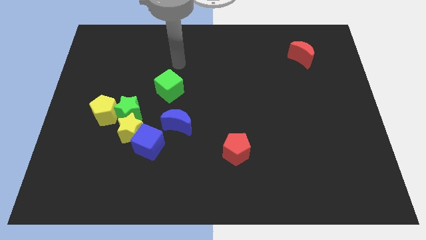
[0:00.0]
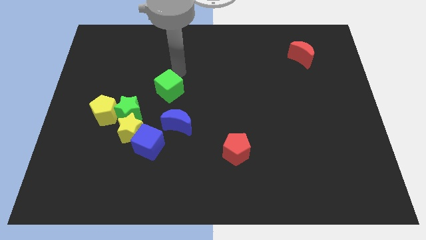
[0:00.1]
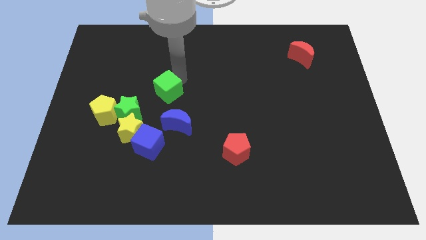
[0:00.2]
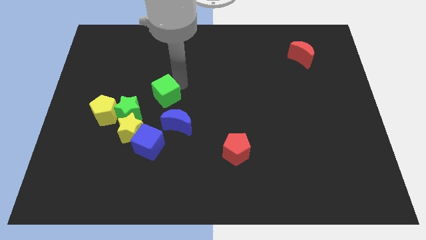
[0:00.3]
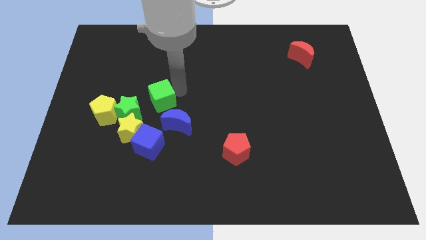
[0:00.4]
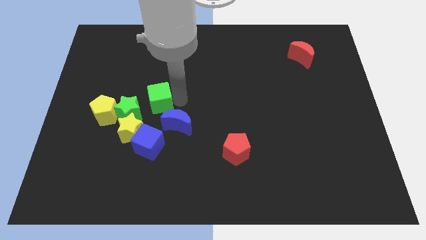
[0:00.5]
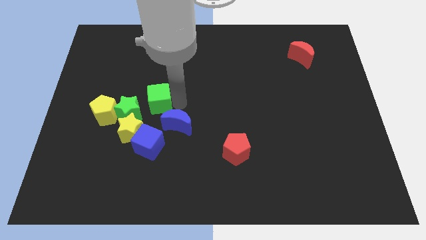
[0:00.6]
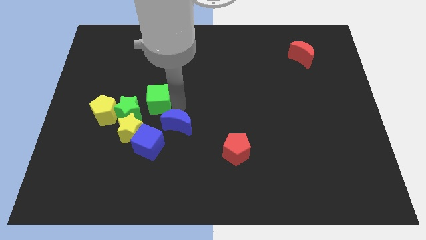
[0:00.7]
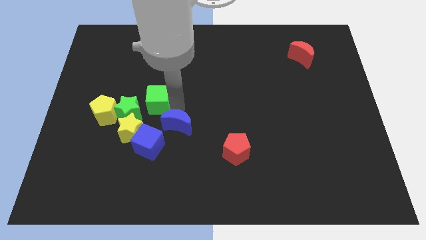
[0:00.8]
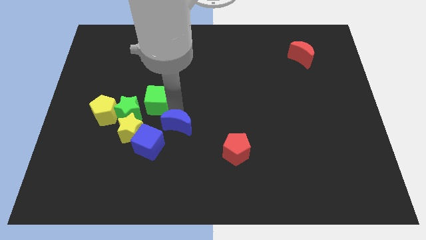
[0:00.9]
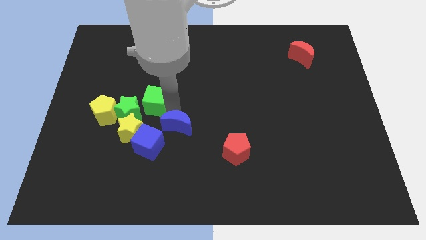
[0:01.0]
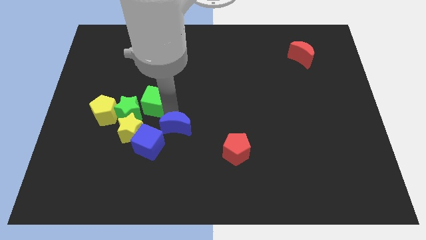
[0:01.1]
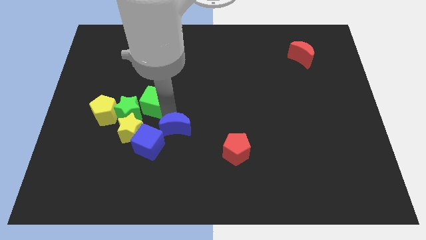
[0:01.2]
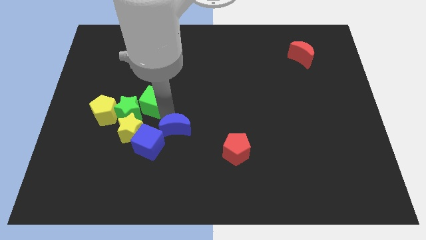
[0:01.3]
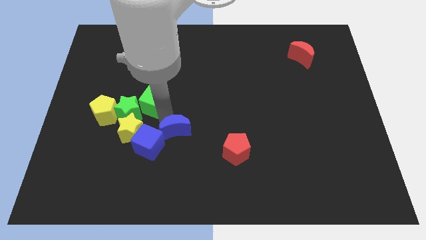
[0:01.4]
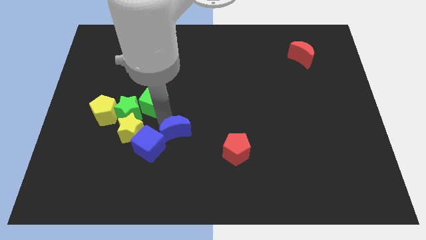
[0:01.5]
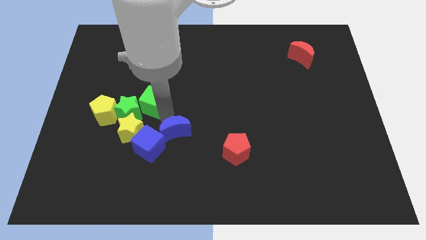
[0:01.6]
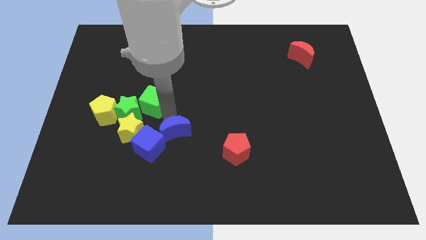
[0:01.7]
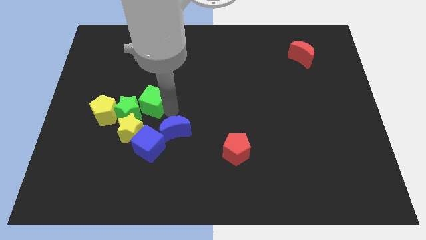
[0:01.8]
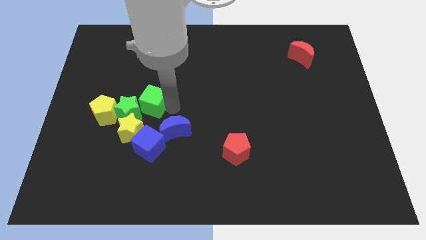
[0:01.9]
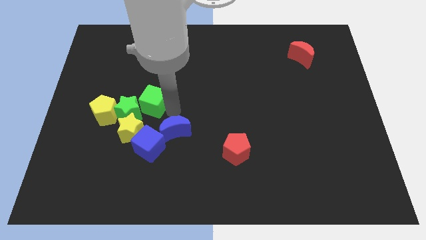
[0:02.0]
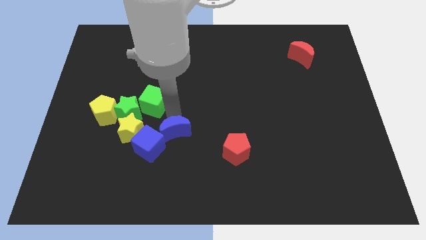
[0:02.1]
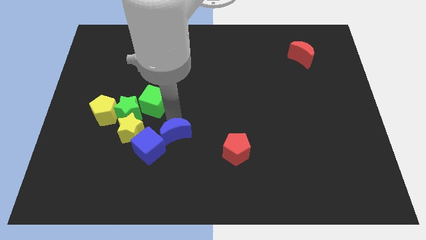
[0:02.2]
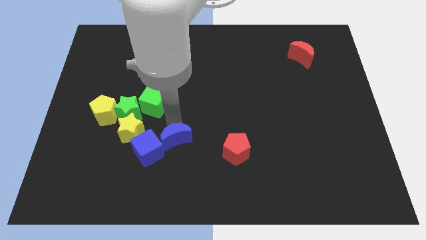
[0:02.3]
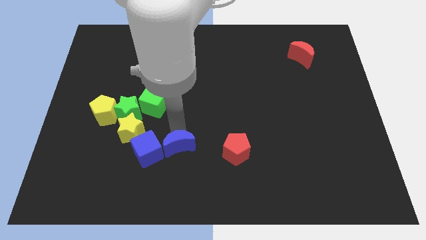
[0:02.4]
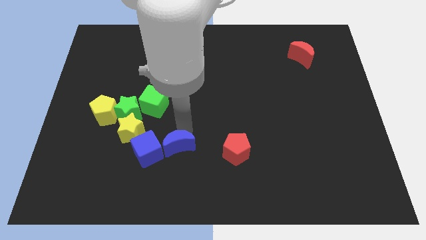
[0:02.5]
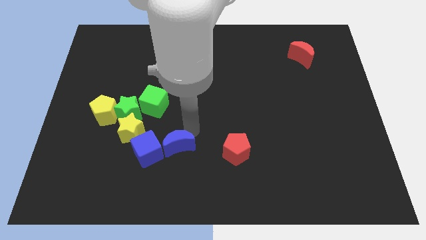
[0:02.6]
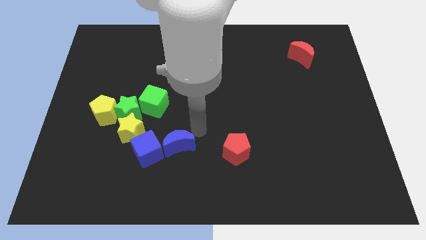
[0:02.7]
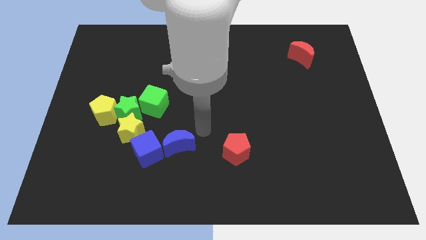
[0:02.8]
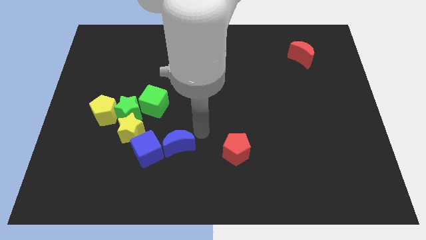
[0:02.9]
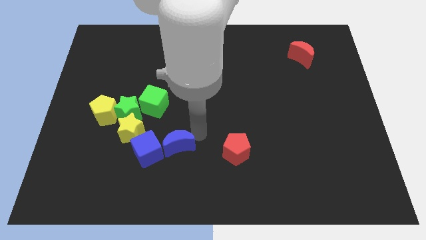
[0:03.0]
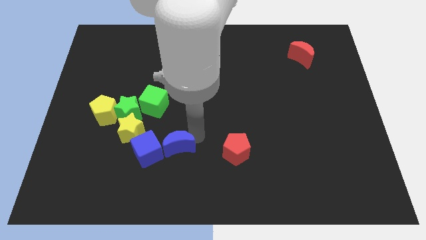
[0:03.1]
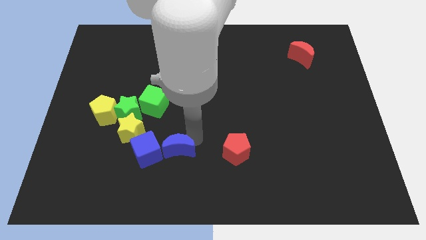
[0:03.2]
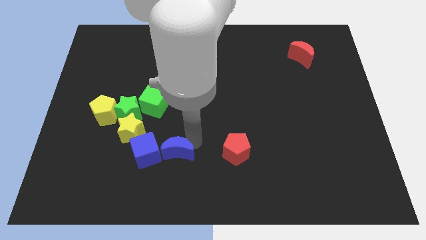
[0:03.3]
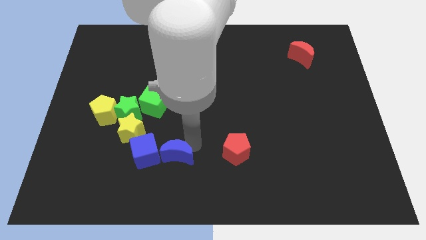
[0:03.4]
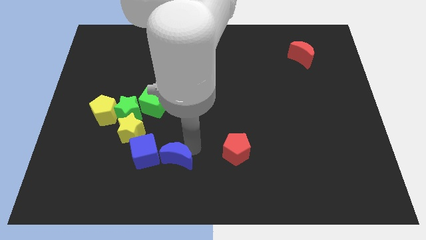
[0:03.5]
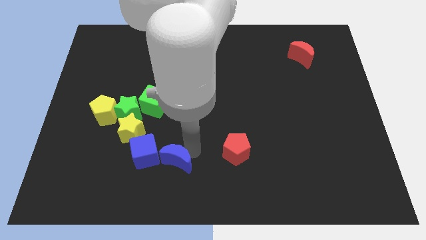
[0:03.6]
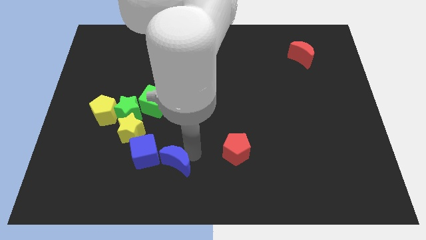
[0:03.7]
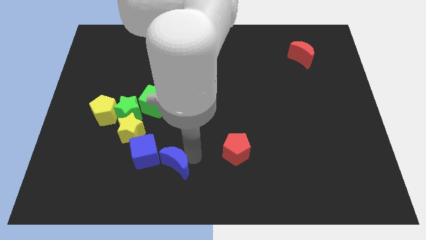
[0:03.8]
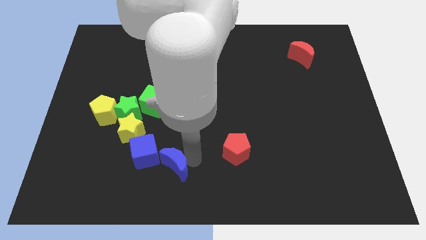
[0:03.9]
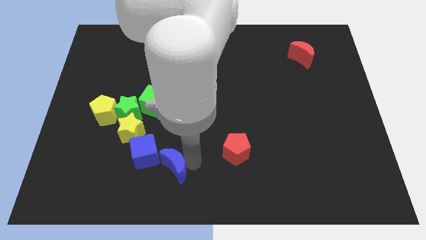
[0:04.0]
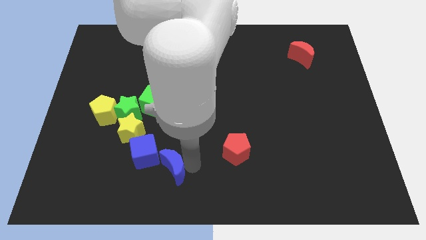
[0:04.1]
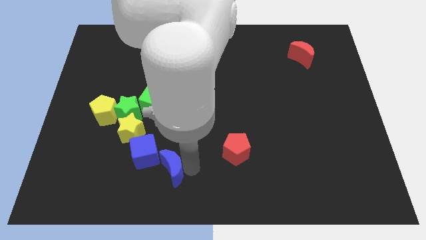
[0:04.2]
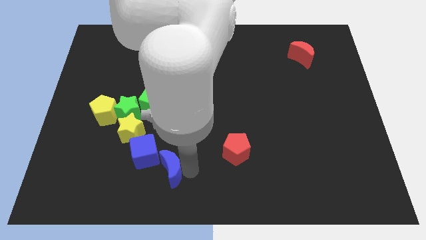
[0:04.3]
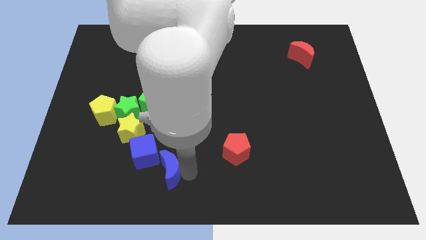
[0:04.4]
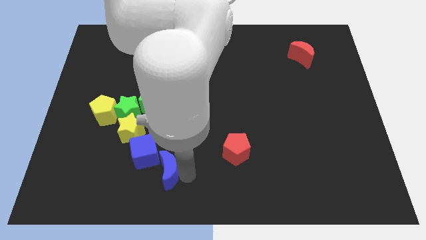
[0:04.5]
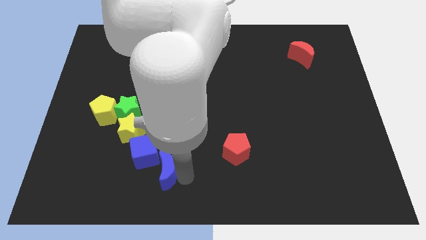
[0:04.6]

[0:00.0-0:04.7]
slightly push the blue moon downwards and left diagonally

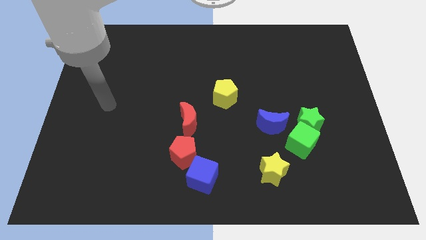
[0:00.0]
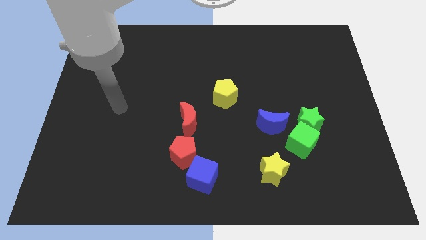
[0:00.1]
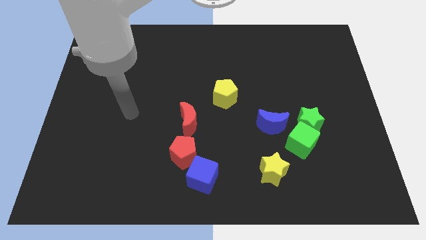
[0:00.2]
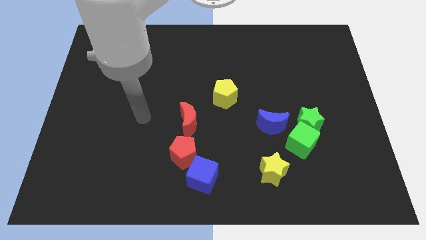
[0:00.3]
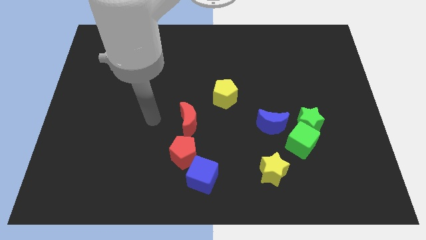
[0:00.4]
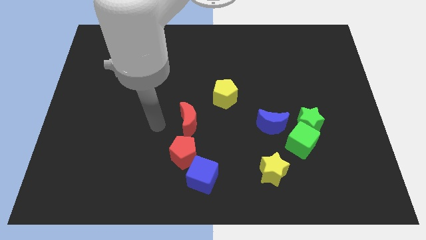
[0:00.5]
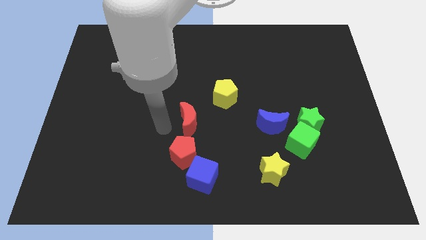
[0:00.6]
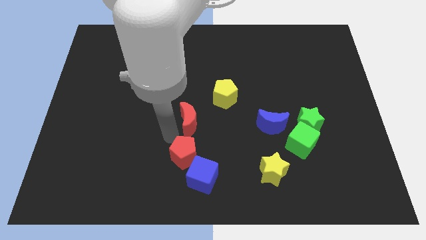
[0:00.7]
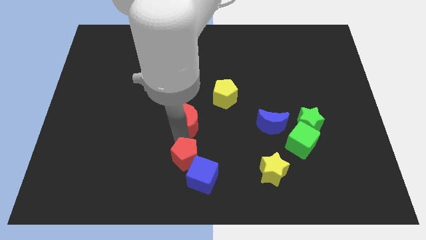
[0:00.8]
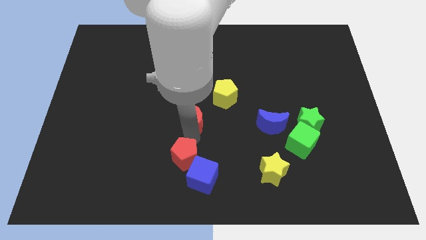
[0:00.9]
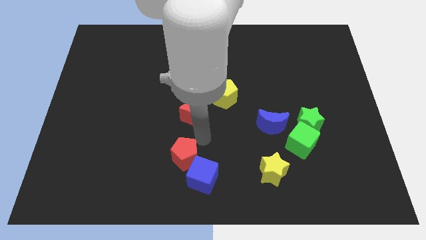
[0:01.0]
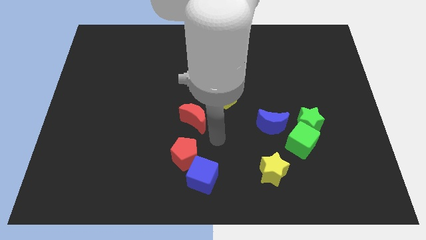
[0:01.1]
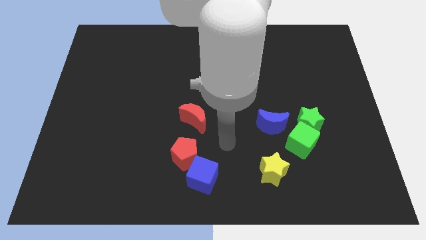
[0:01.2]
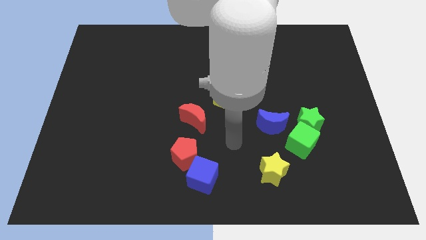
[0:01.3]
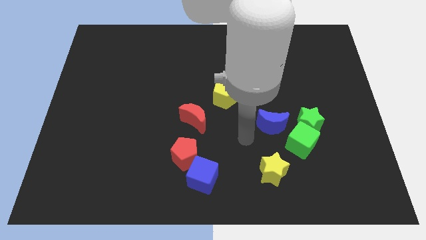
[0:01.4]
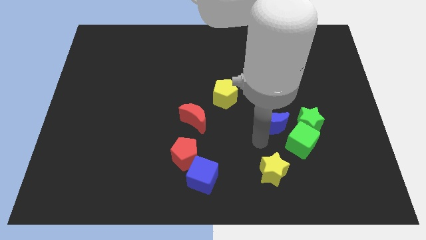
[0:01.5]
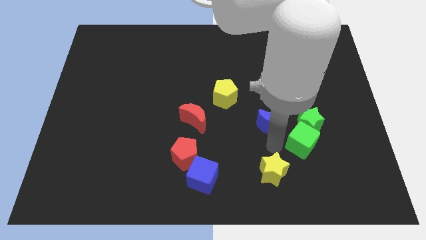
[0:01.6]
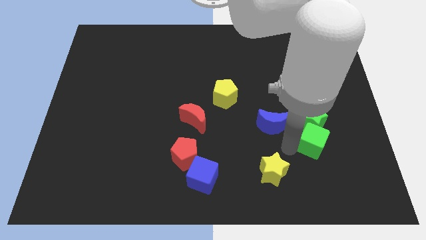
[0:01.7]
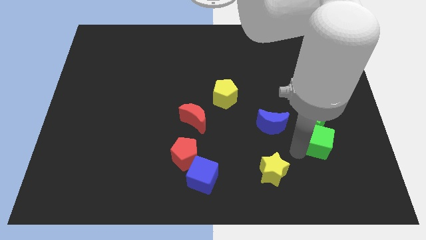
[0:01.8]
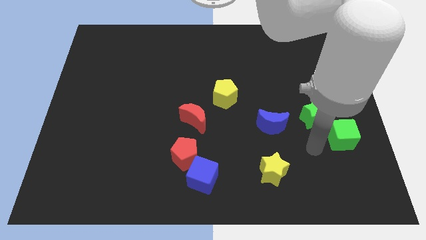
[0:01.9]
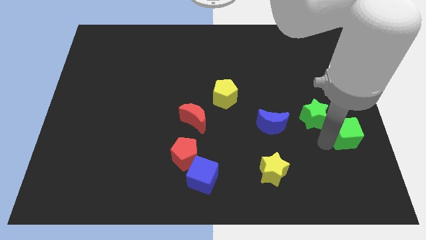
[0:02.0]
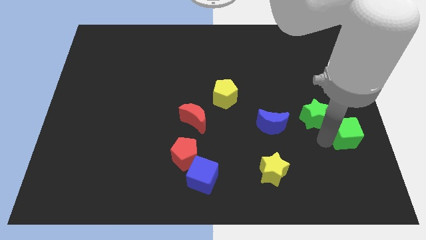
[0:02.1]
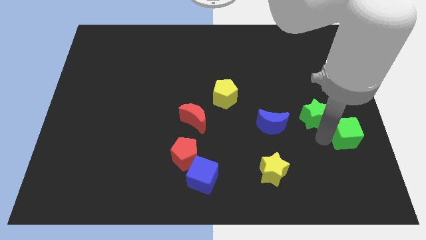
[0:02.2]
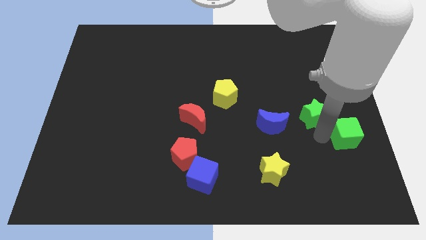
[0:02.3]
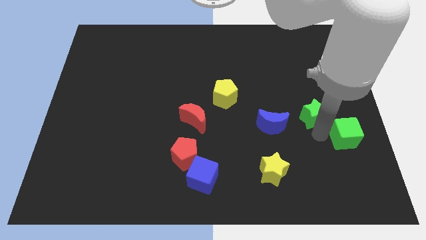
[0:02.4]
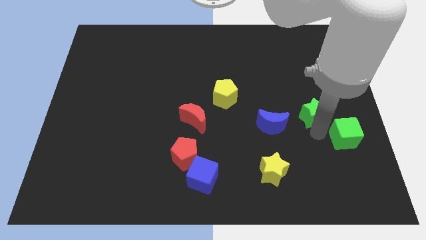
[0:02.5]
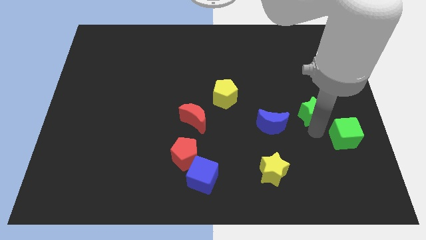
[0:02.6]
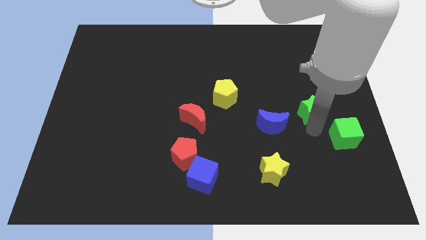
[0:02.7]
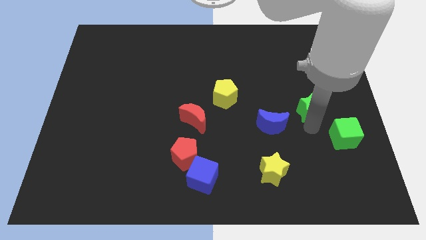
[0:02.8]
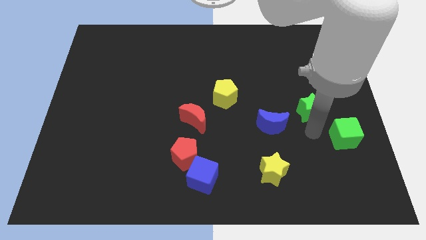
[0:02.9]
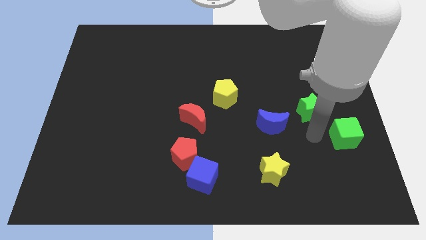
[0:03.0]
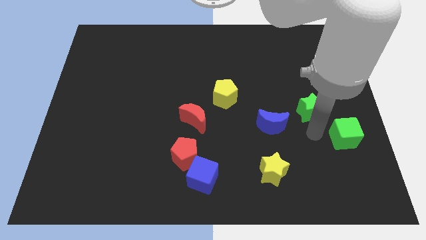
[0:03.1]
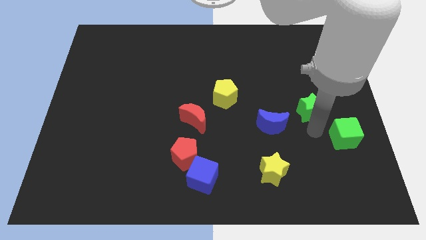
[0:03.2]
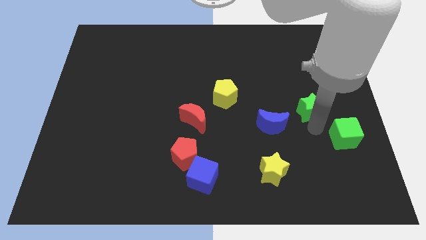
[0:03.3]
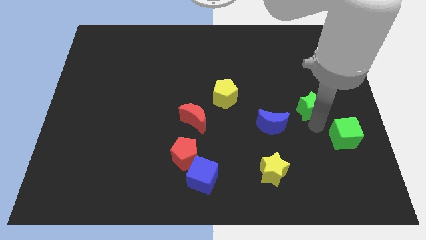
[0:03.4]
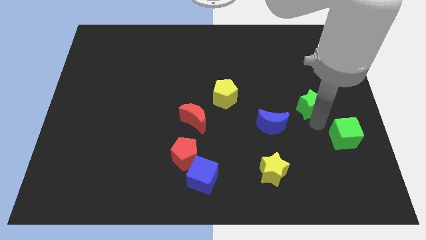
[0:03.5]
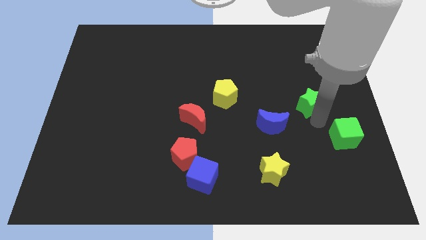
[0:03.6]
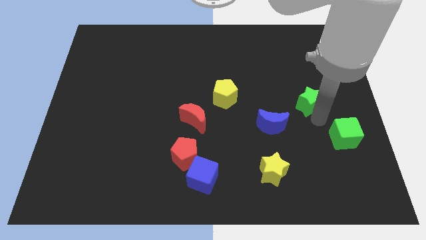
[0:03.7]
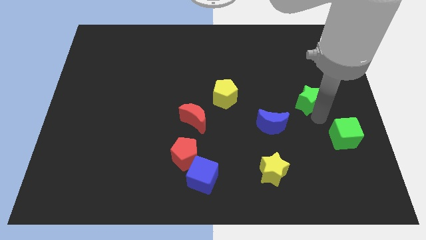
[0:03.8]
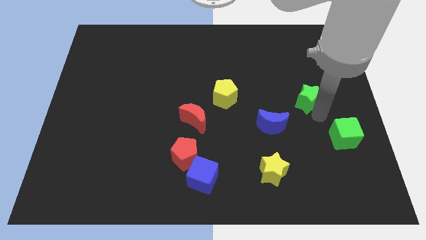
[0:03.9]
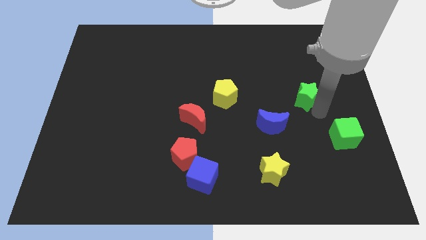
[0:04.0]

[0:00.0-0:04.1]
slide the green star a little bit up
